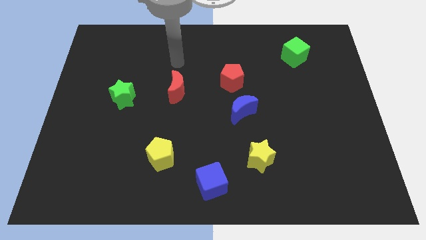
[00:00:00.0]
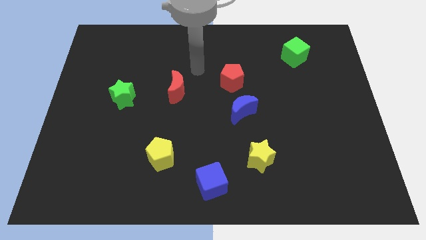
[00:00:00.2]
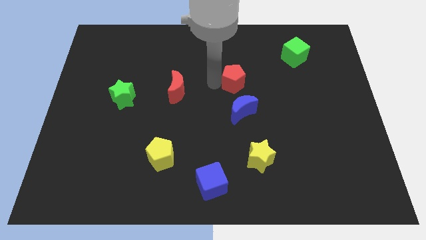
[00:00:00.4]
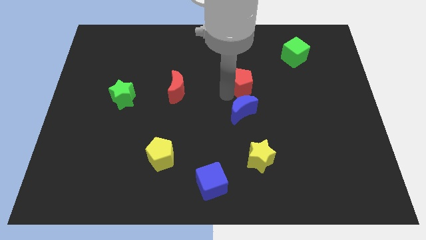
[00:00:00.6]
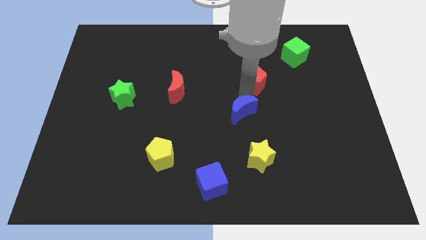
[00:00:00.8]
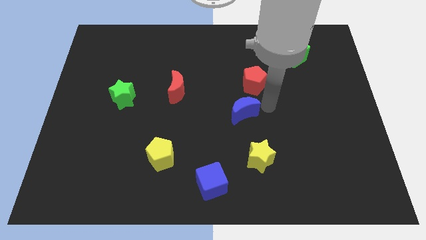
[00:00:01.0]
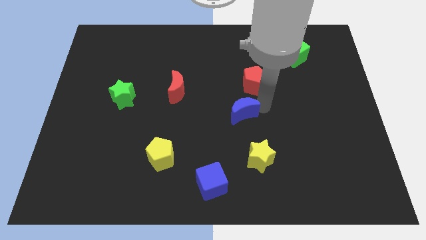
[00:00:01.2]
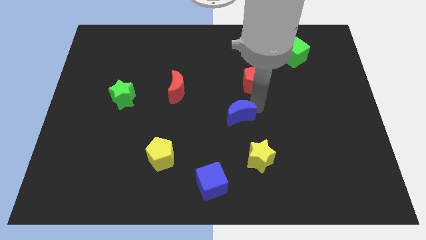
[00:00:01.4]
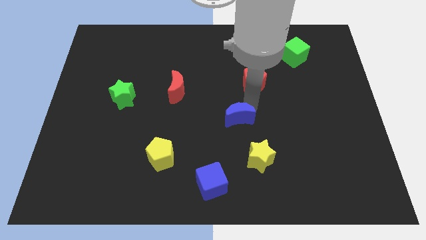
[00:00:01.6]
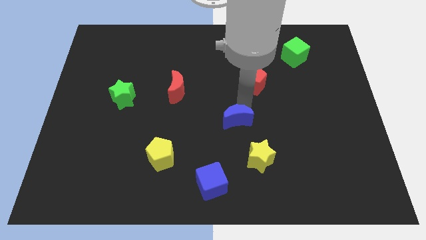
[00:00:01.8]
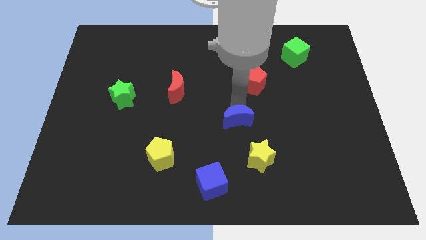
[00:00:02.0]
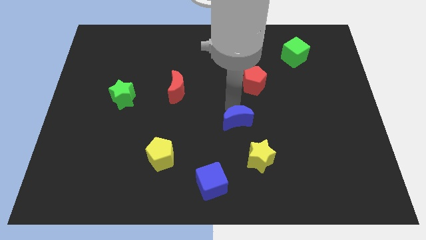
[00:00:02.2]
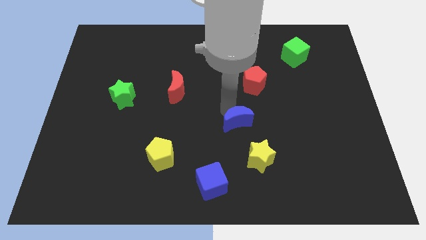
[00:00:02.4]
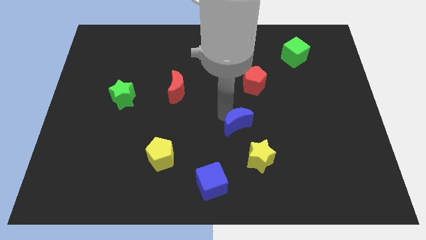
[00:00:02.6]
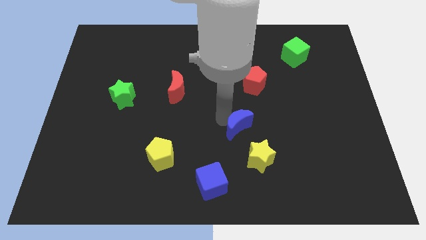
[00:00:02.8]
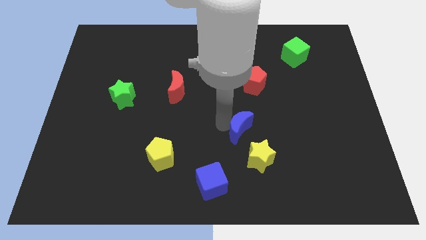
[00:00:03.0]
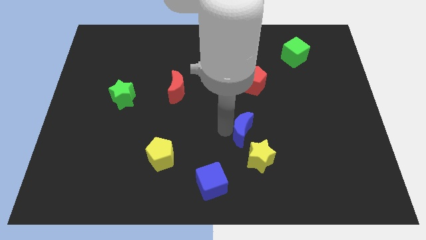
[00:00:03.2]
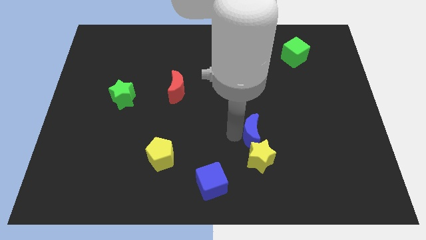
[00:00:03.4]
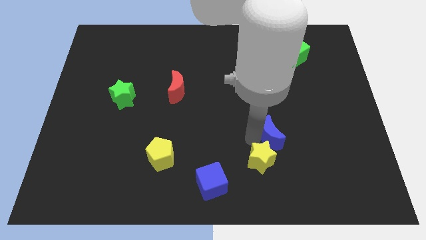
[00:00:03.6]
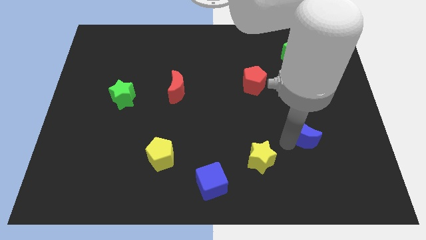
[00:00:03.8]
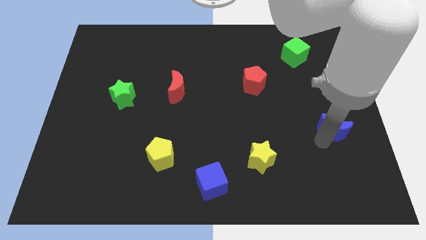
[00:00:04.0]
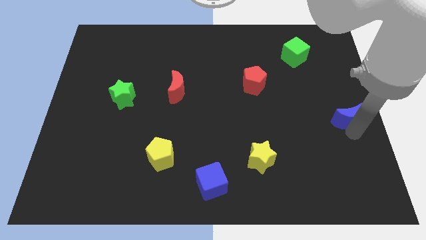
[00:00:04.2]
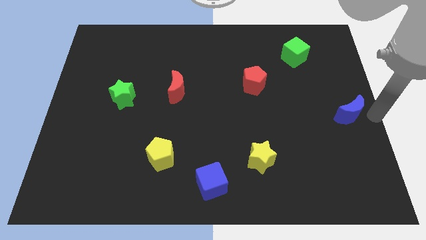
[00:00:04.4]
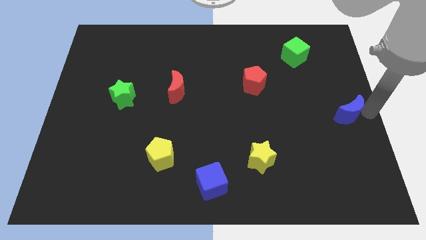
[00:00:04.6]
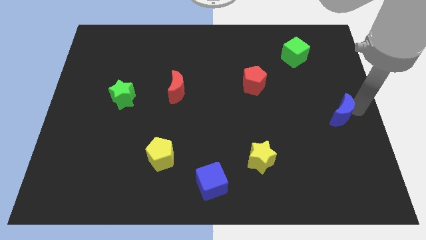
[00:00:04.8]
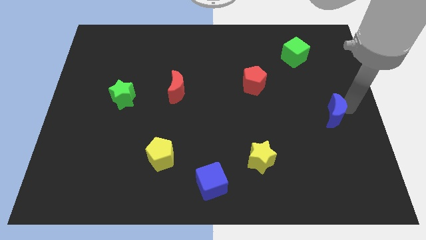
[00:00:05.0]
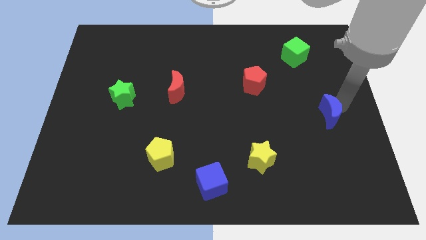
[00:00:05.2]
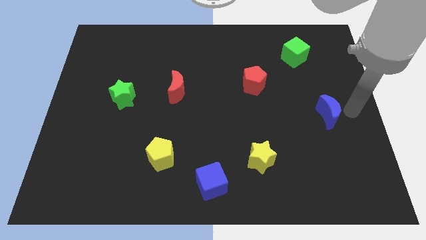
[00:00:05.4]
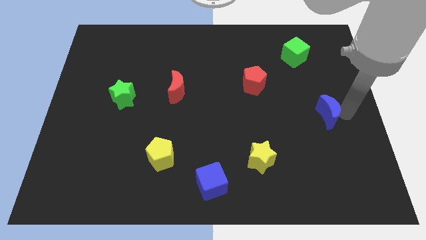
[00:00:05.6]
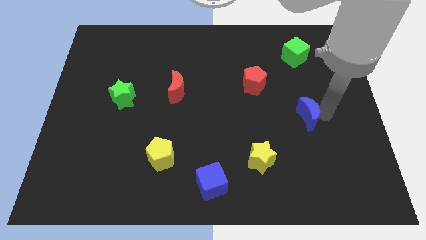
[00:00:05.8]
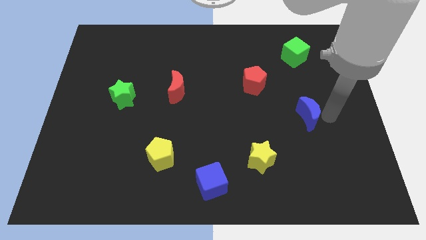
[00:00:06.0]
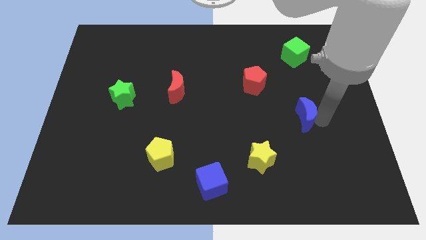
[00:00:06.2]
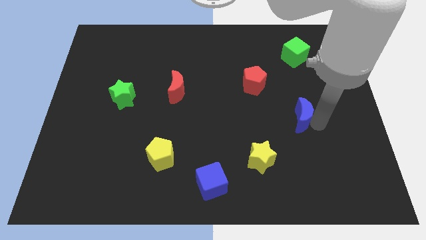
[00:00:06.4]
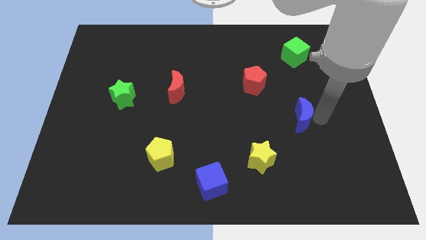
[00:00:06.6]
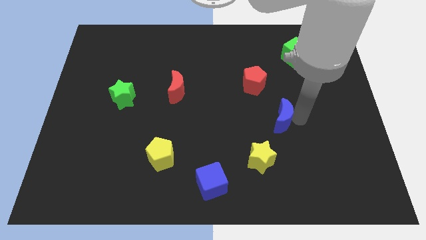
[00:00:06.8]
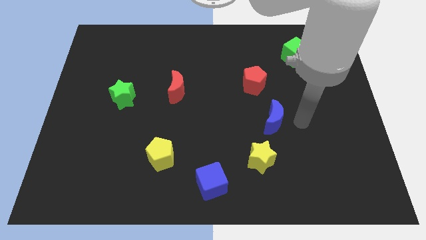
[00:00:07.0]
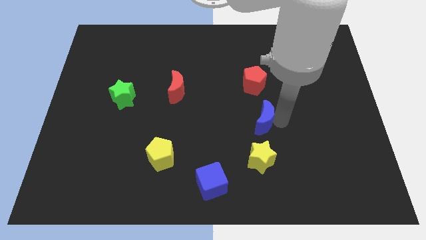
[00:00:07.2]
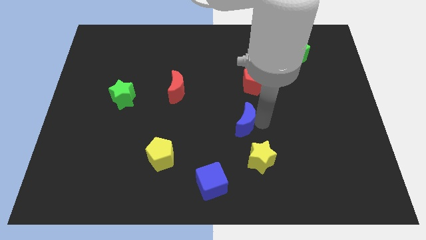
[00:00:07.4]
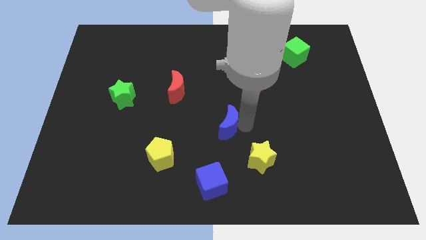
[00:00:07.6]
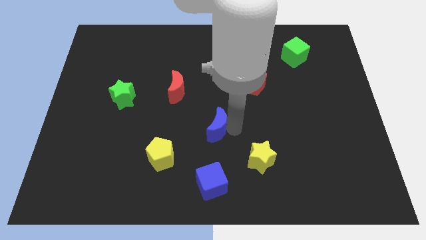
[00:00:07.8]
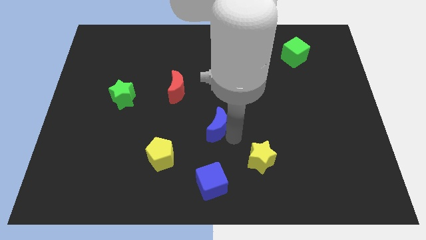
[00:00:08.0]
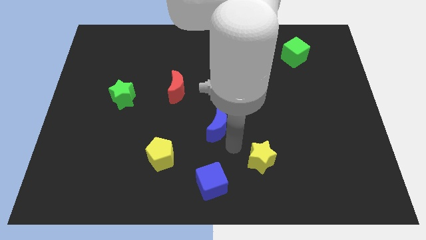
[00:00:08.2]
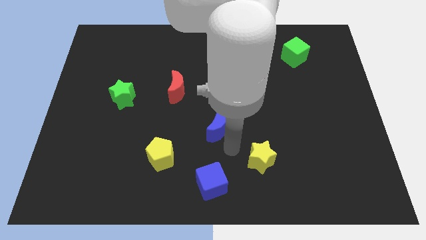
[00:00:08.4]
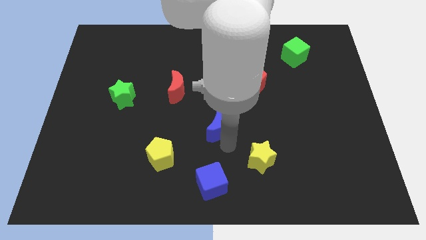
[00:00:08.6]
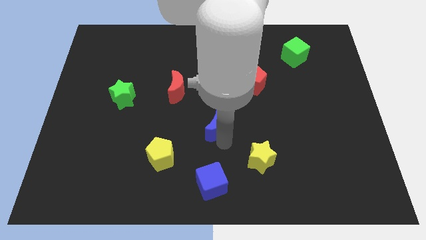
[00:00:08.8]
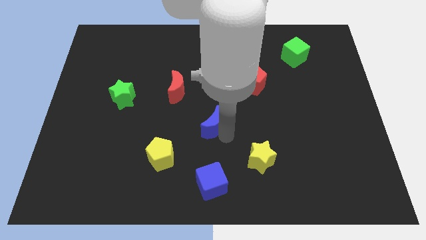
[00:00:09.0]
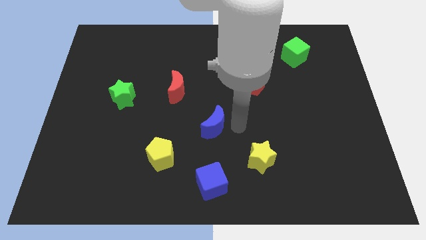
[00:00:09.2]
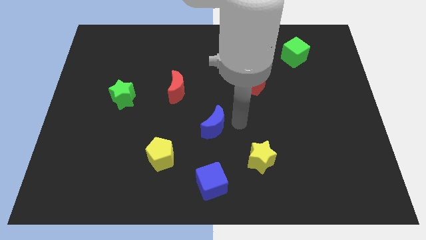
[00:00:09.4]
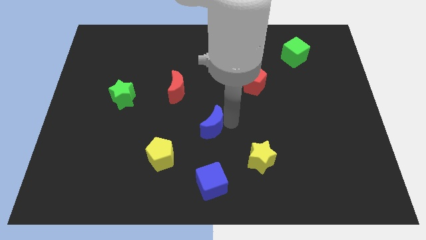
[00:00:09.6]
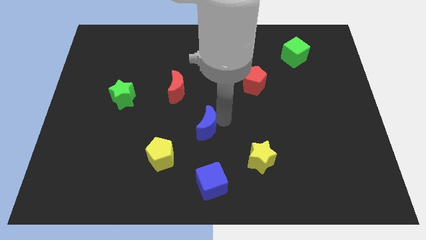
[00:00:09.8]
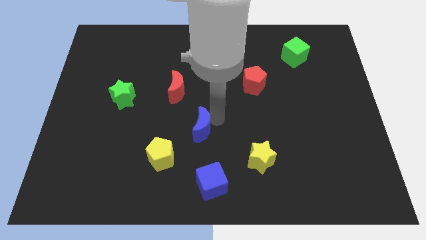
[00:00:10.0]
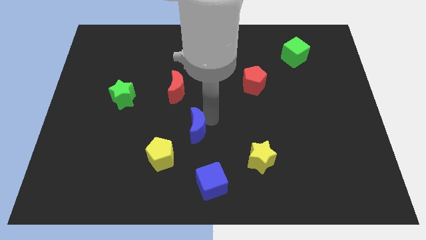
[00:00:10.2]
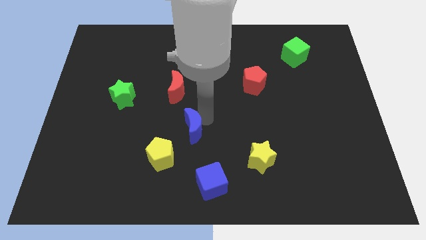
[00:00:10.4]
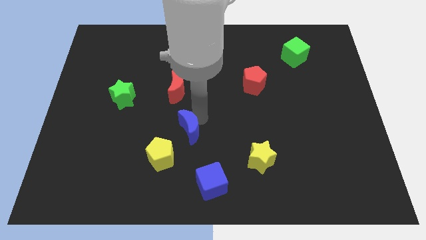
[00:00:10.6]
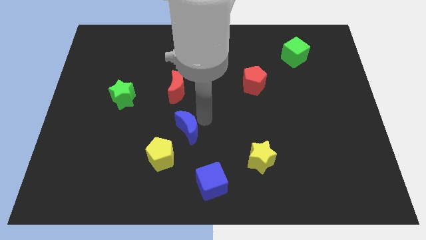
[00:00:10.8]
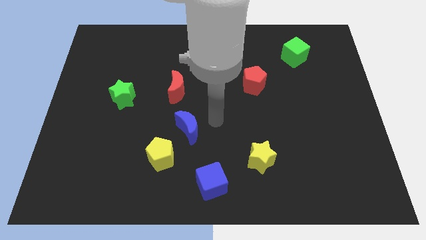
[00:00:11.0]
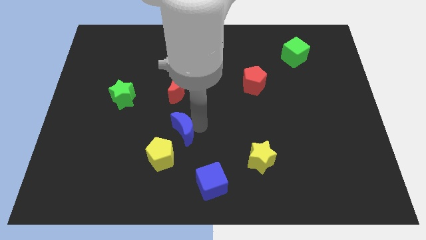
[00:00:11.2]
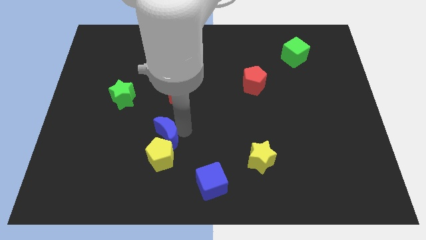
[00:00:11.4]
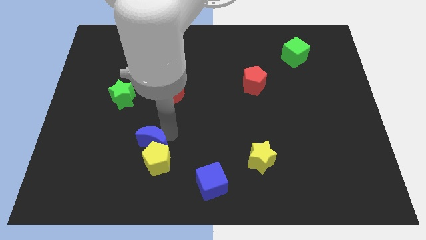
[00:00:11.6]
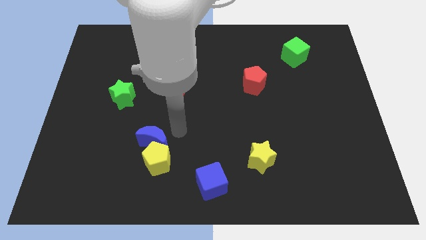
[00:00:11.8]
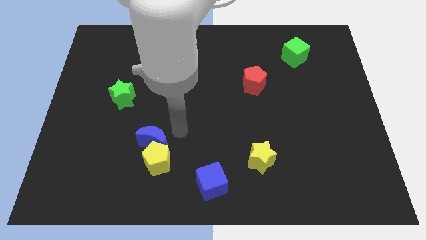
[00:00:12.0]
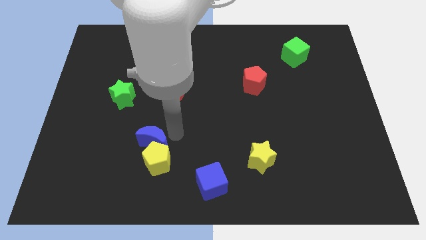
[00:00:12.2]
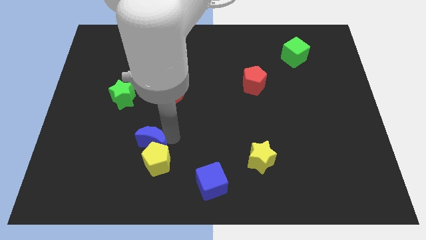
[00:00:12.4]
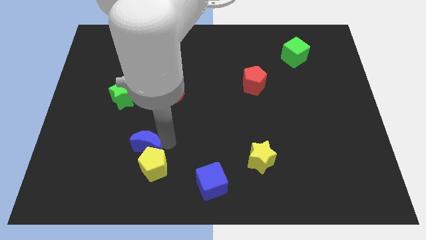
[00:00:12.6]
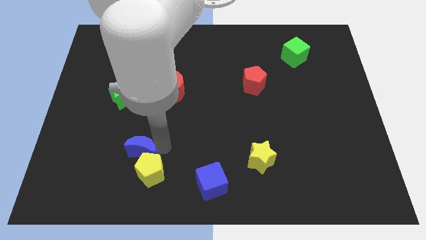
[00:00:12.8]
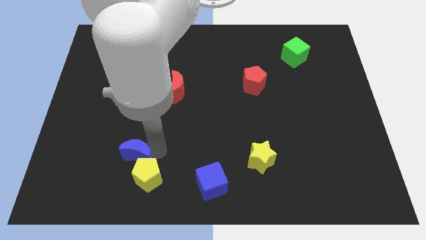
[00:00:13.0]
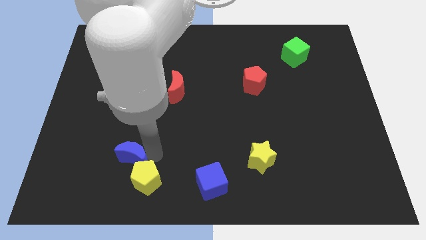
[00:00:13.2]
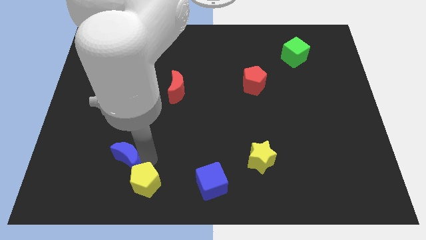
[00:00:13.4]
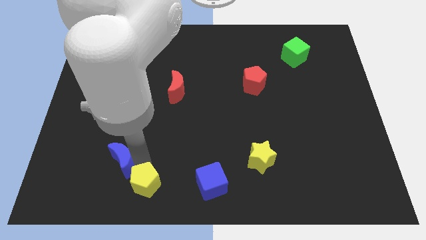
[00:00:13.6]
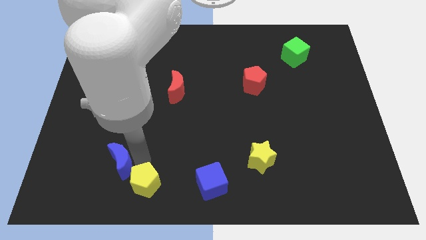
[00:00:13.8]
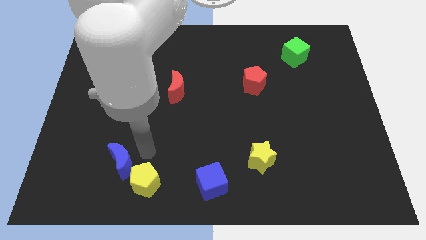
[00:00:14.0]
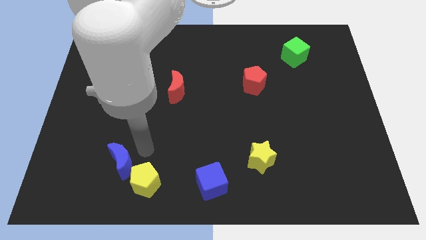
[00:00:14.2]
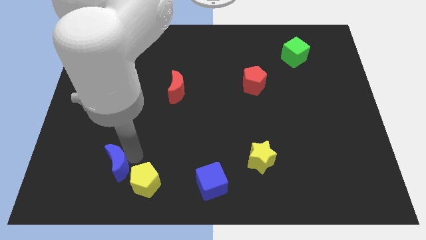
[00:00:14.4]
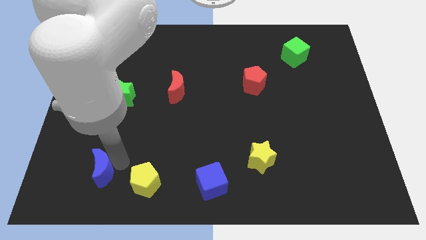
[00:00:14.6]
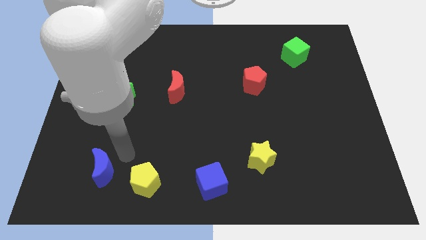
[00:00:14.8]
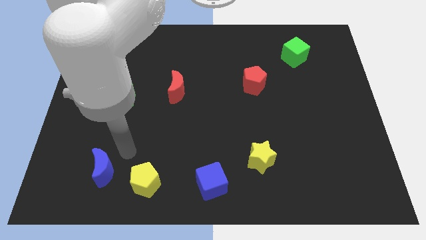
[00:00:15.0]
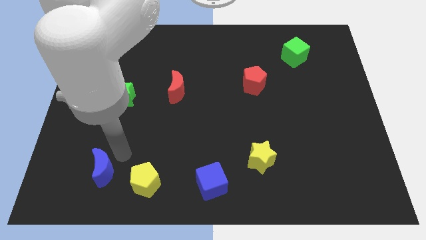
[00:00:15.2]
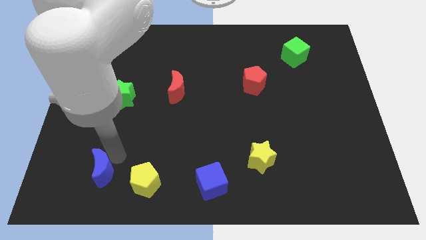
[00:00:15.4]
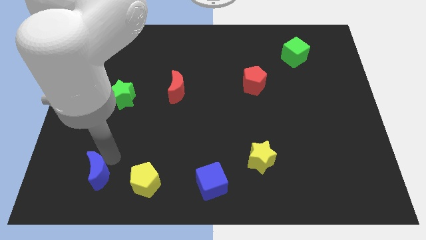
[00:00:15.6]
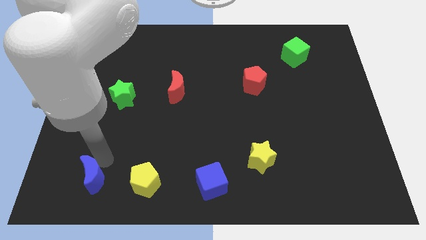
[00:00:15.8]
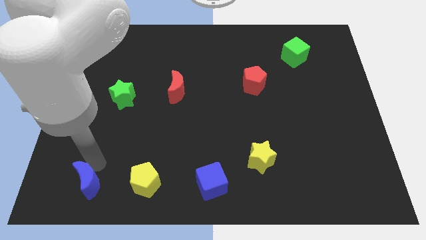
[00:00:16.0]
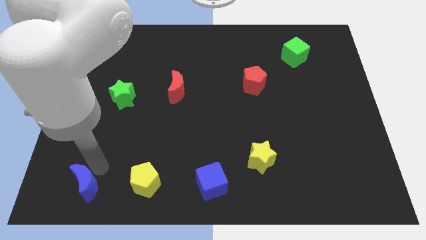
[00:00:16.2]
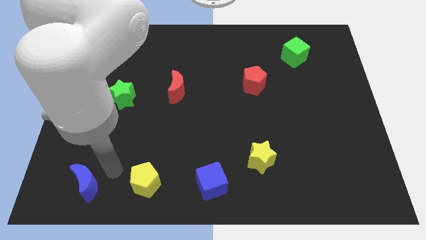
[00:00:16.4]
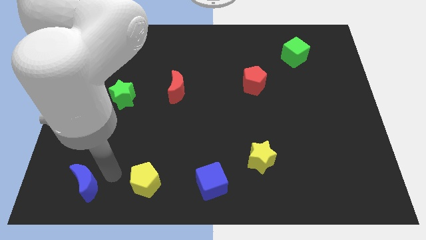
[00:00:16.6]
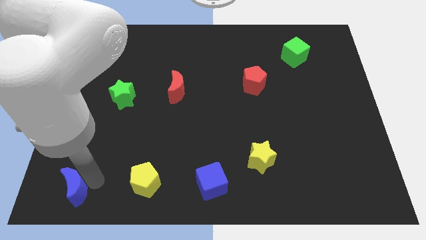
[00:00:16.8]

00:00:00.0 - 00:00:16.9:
move the blue moon to the bottom left corner
